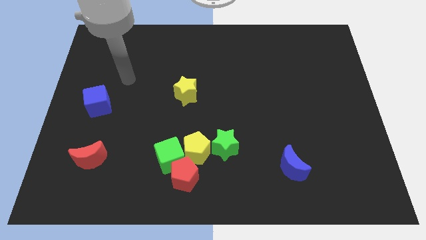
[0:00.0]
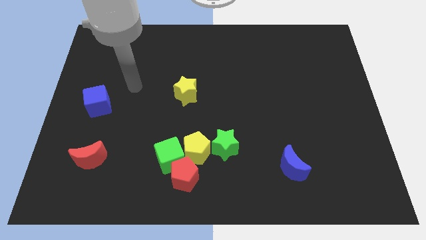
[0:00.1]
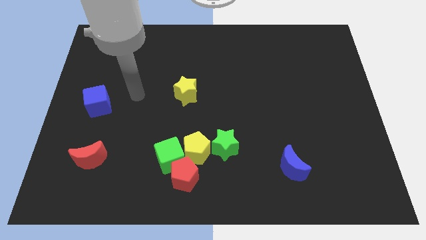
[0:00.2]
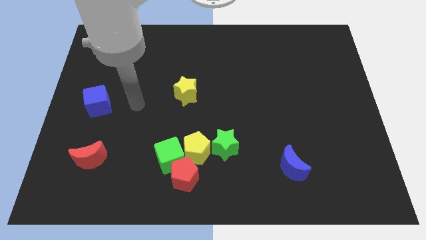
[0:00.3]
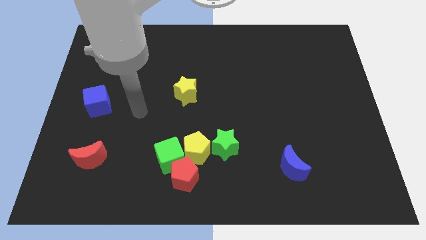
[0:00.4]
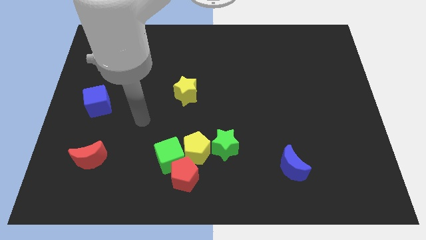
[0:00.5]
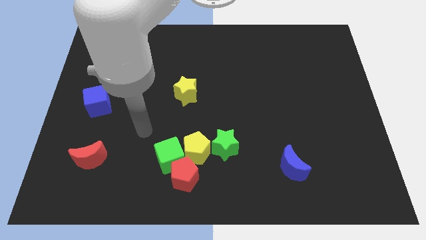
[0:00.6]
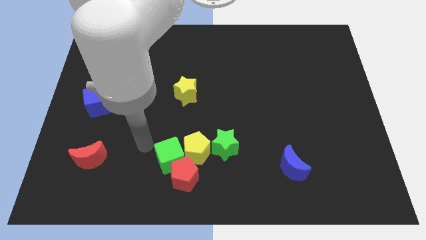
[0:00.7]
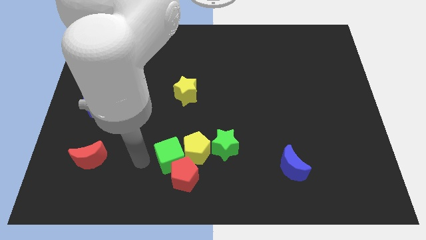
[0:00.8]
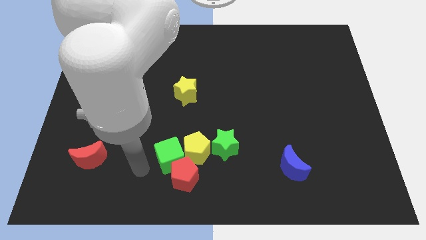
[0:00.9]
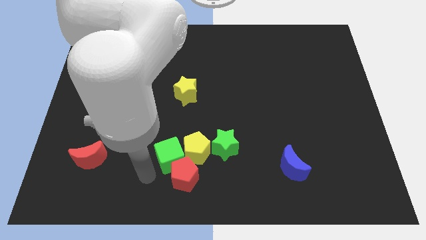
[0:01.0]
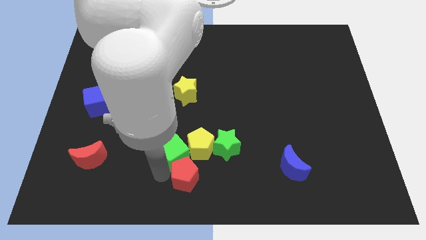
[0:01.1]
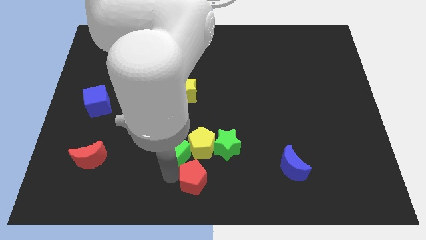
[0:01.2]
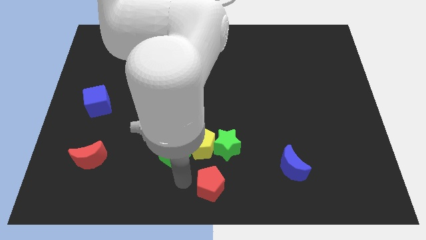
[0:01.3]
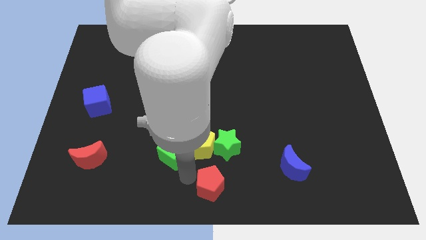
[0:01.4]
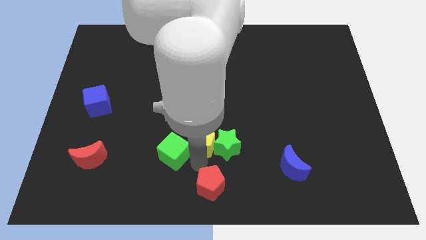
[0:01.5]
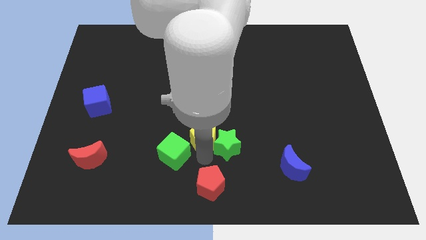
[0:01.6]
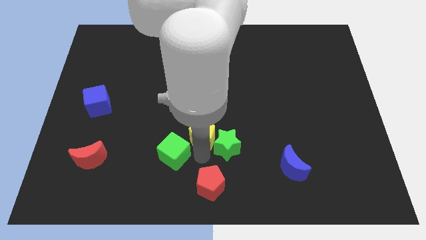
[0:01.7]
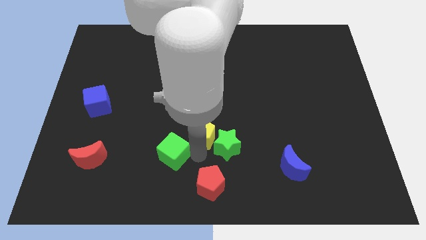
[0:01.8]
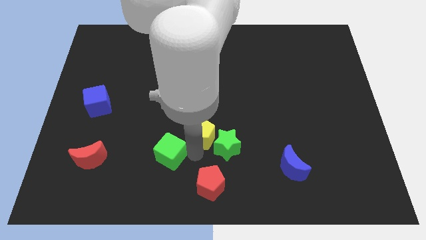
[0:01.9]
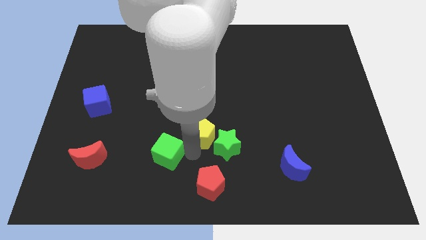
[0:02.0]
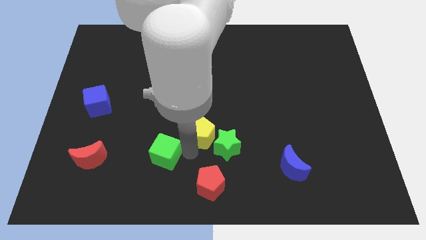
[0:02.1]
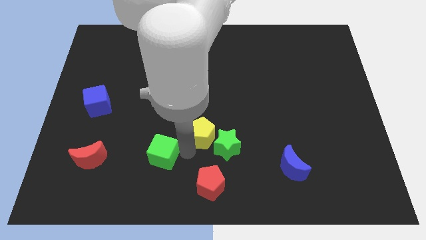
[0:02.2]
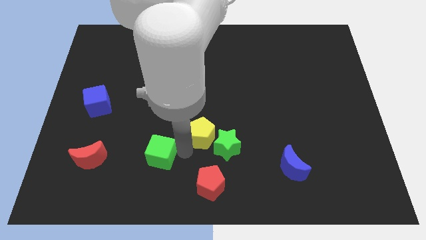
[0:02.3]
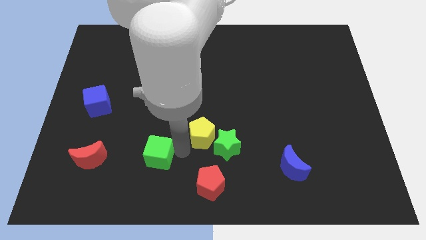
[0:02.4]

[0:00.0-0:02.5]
separate the green cube from the red pentagon and yellow pentagon

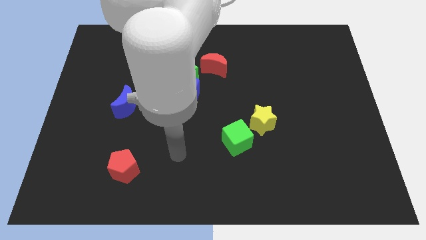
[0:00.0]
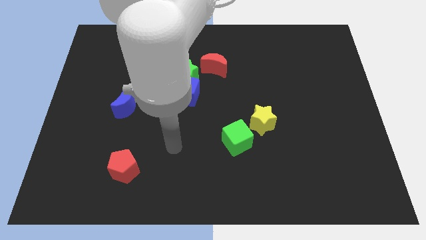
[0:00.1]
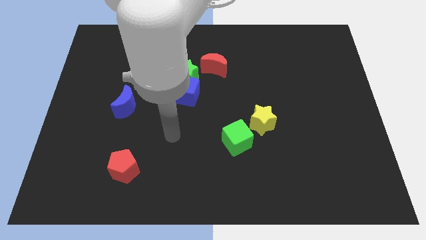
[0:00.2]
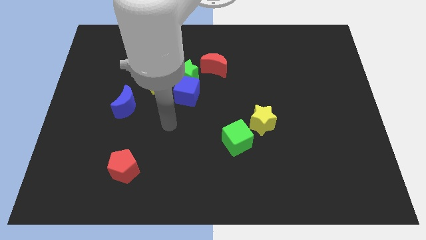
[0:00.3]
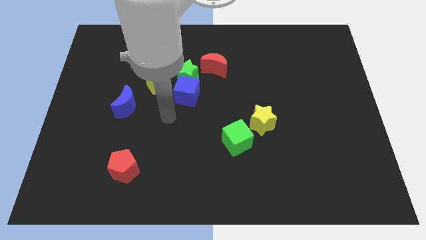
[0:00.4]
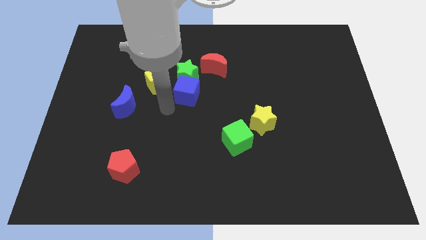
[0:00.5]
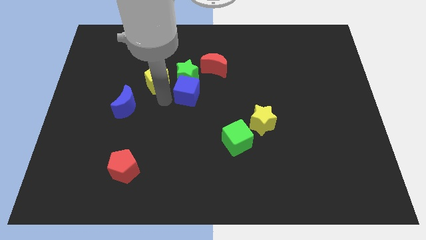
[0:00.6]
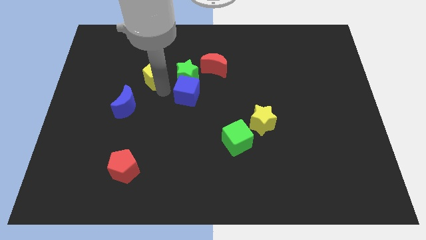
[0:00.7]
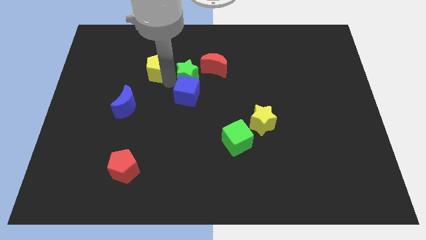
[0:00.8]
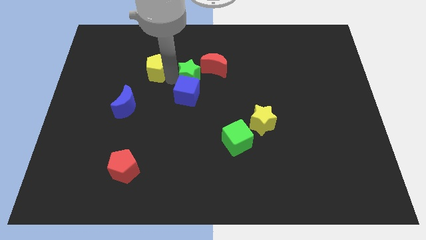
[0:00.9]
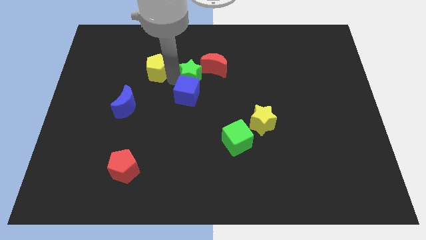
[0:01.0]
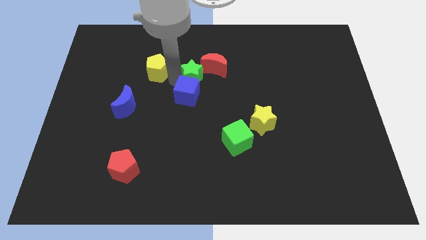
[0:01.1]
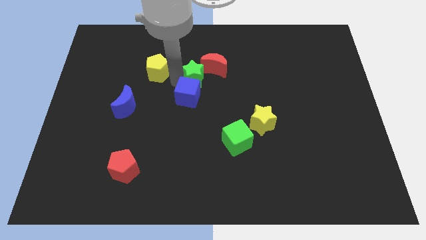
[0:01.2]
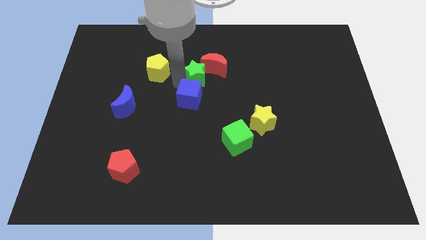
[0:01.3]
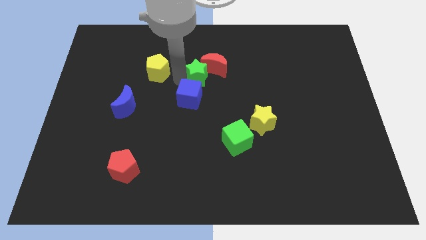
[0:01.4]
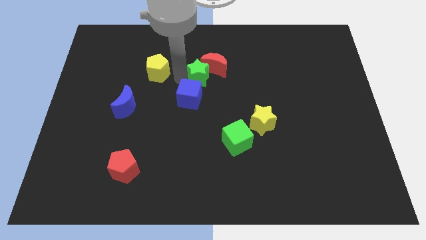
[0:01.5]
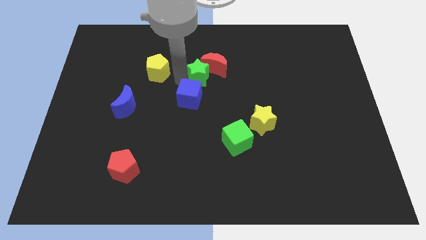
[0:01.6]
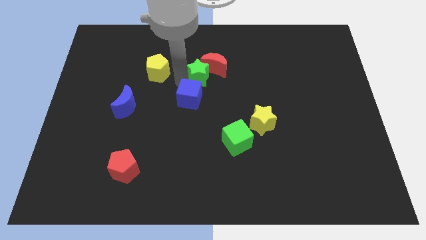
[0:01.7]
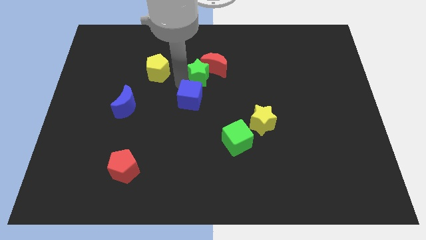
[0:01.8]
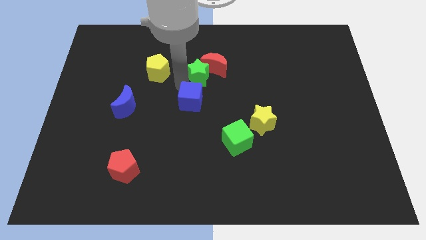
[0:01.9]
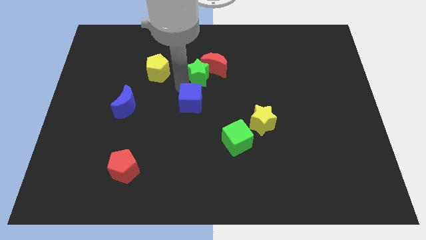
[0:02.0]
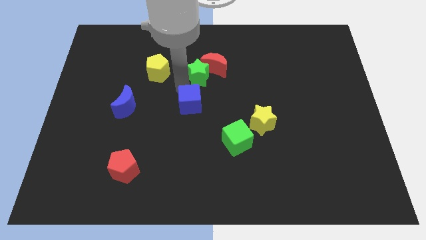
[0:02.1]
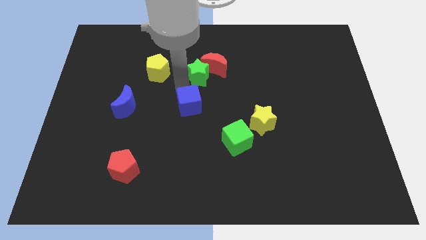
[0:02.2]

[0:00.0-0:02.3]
separate the blue cube from the green star and yellow pentagon

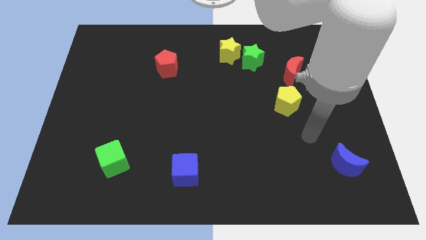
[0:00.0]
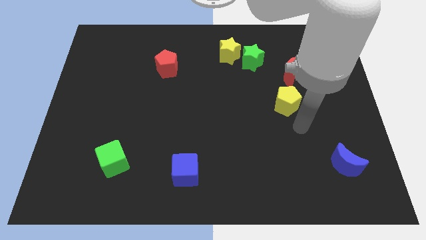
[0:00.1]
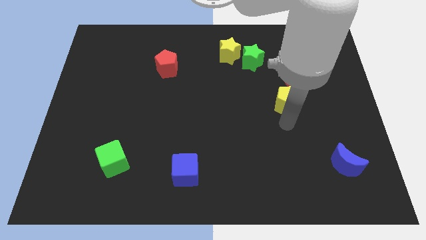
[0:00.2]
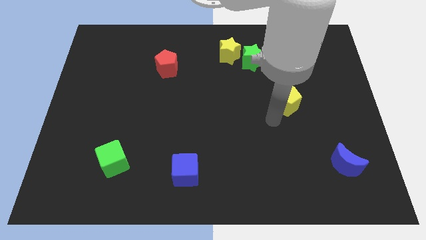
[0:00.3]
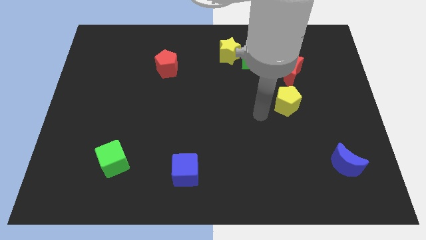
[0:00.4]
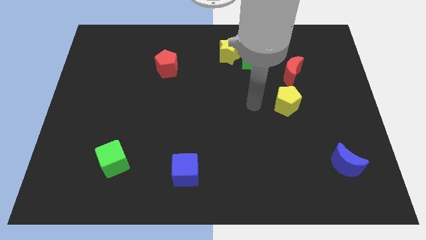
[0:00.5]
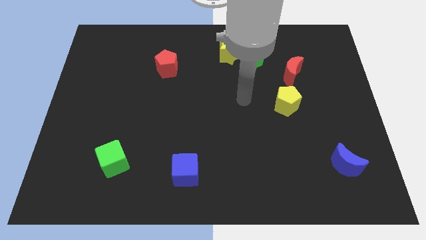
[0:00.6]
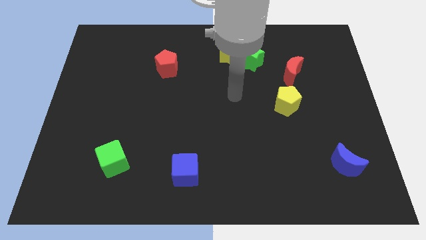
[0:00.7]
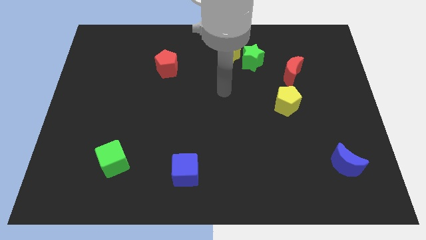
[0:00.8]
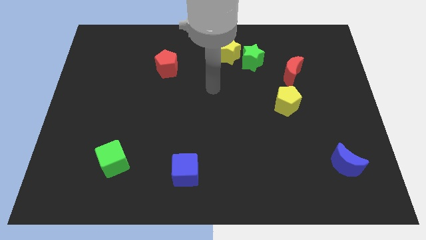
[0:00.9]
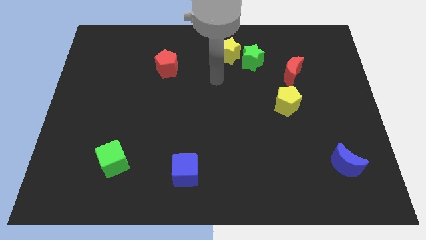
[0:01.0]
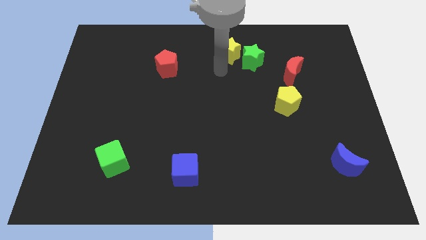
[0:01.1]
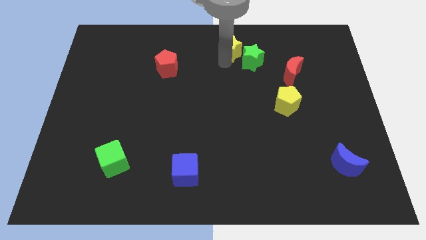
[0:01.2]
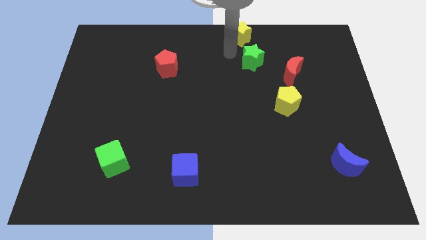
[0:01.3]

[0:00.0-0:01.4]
separate the green star from the yellow star

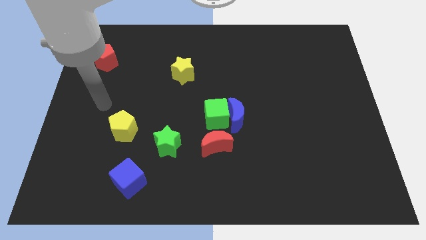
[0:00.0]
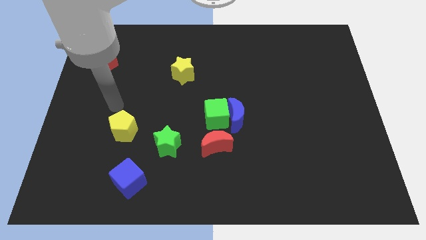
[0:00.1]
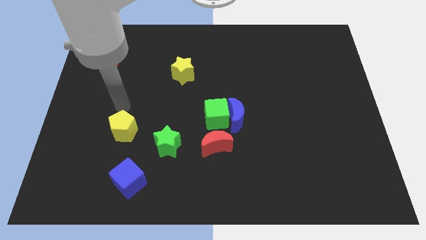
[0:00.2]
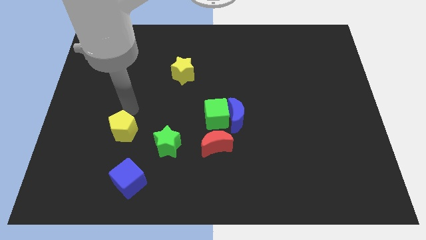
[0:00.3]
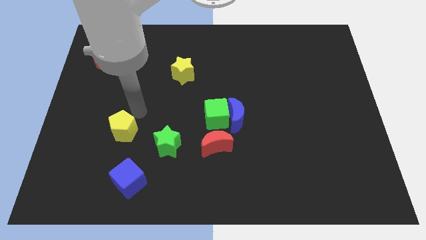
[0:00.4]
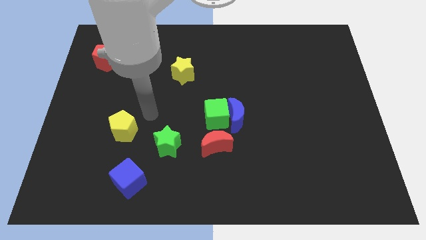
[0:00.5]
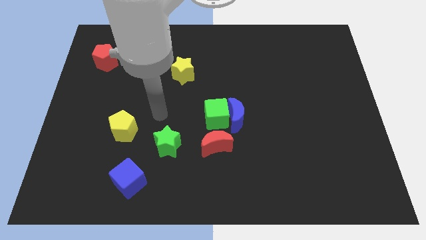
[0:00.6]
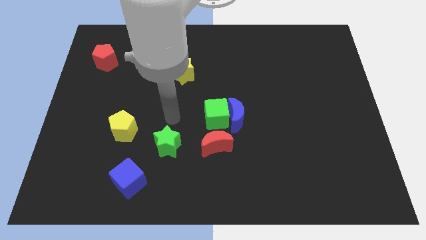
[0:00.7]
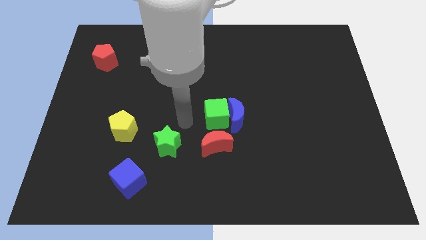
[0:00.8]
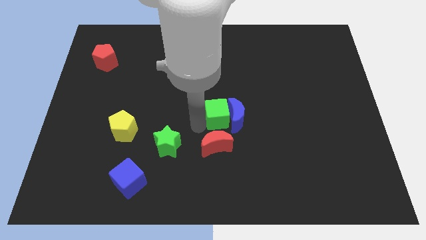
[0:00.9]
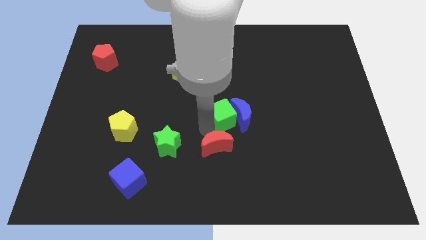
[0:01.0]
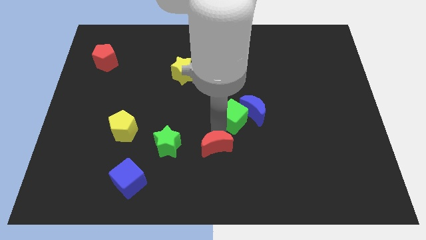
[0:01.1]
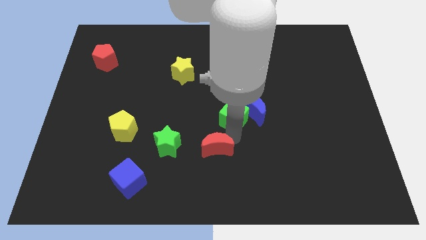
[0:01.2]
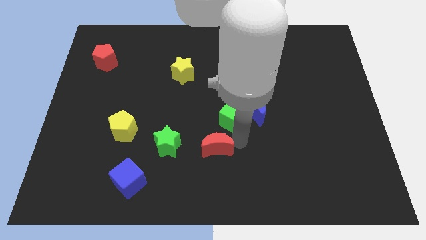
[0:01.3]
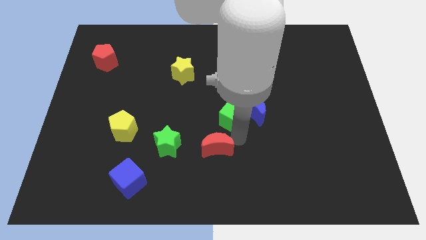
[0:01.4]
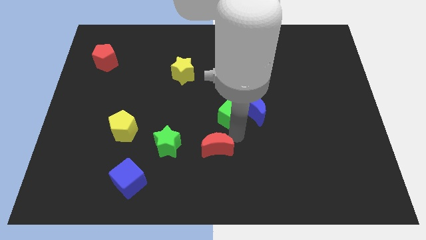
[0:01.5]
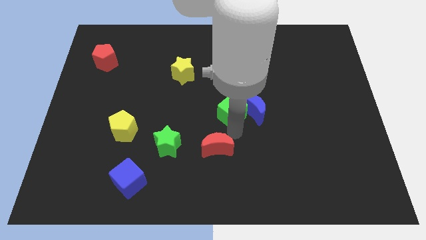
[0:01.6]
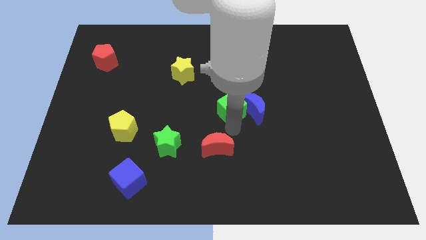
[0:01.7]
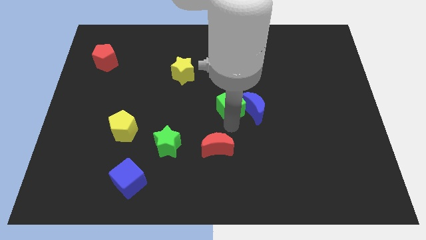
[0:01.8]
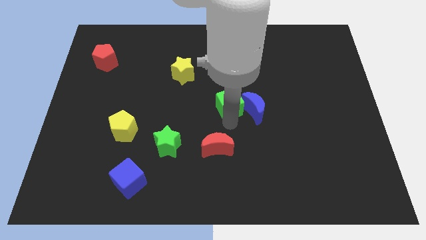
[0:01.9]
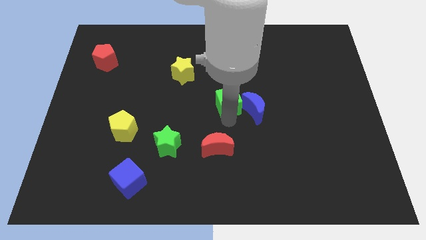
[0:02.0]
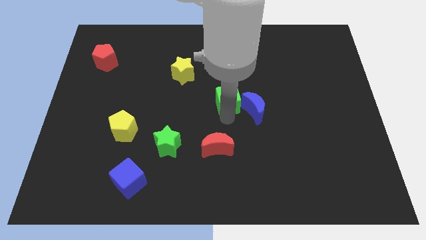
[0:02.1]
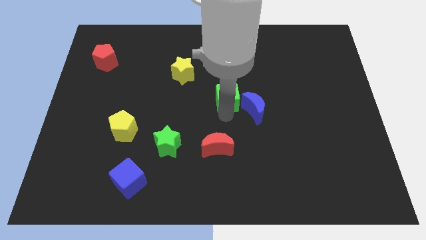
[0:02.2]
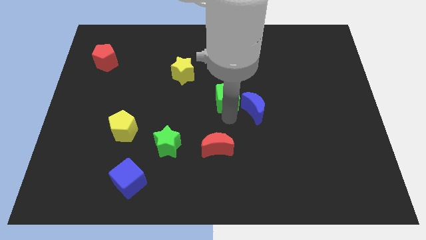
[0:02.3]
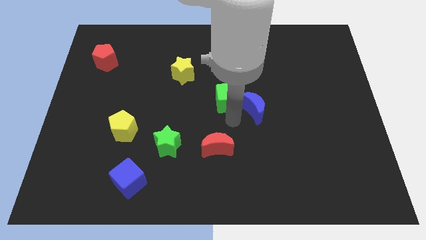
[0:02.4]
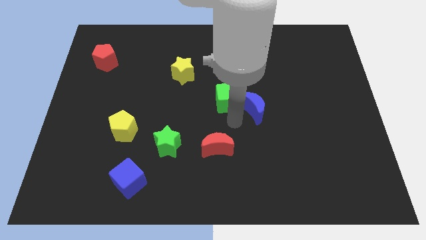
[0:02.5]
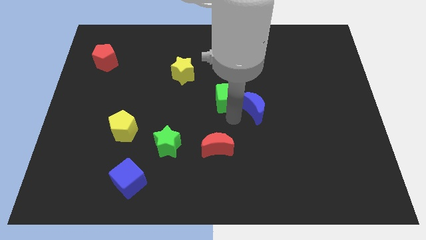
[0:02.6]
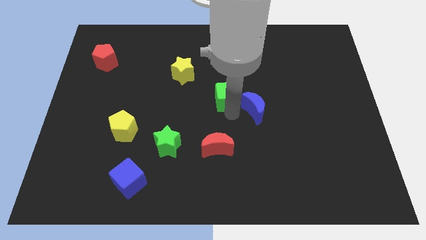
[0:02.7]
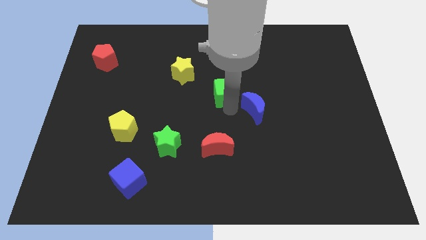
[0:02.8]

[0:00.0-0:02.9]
separate the green cube from the blue moon and red moon

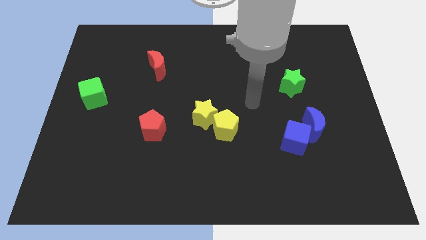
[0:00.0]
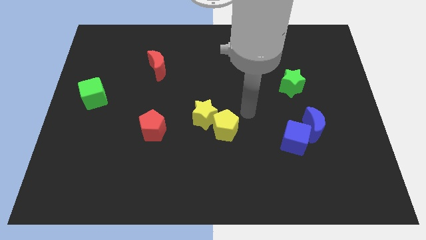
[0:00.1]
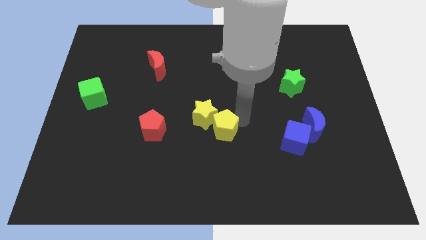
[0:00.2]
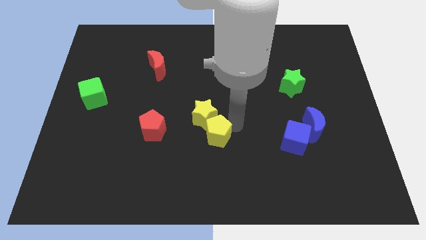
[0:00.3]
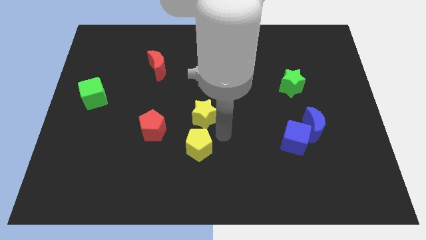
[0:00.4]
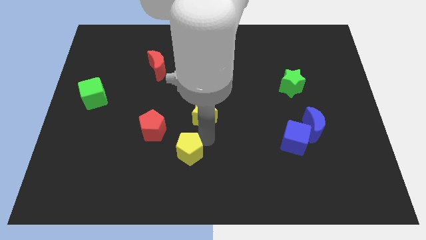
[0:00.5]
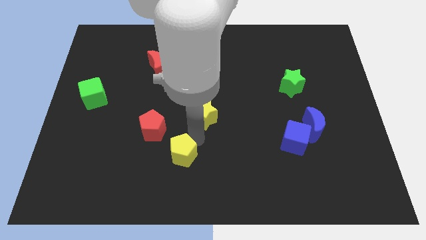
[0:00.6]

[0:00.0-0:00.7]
move the yellow star away from the yellow pentagon
